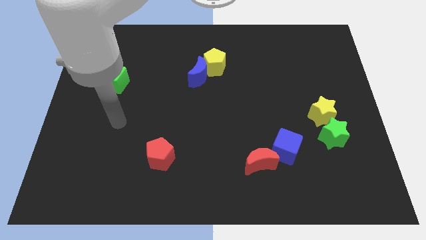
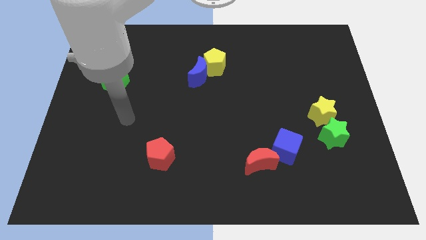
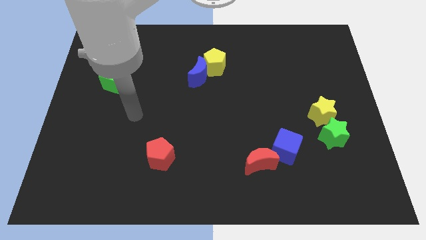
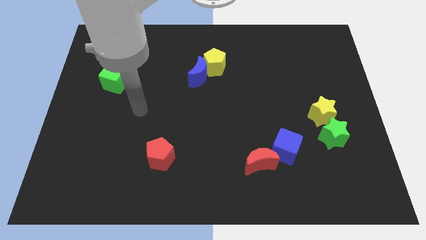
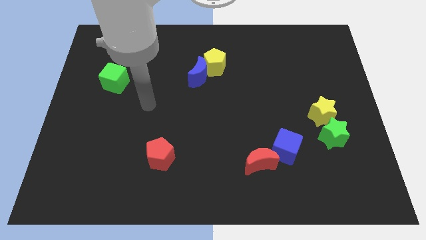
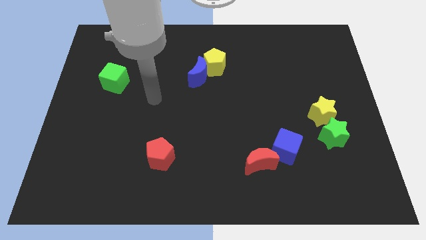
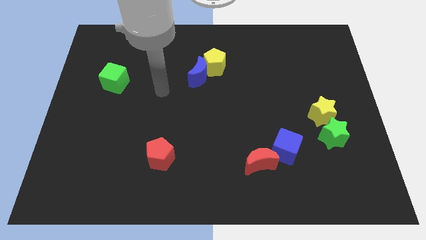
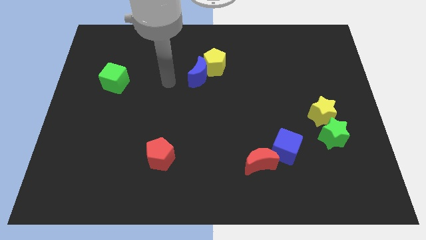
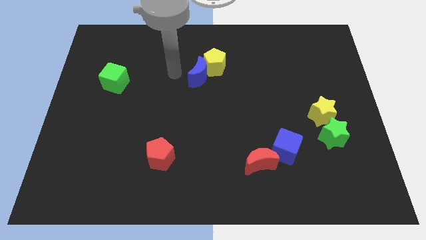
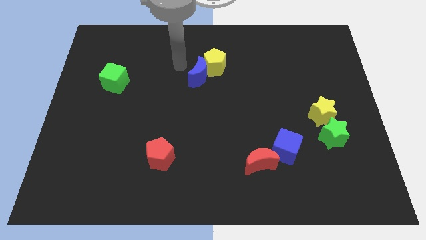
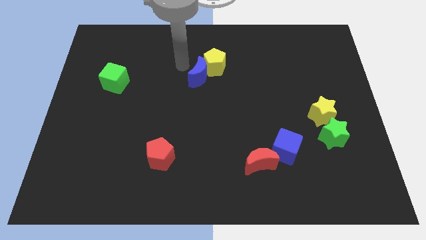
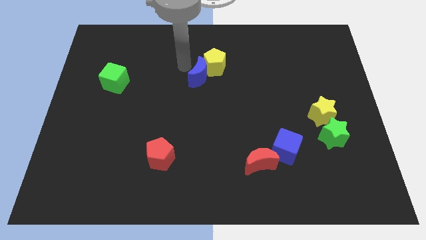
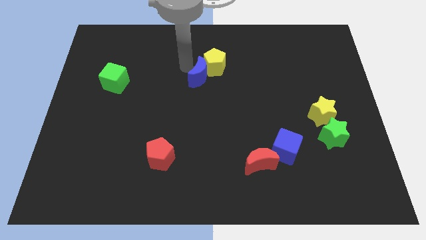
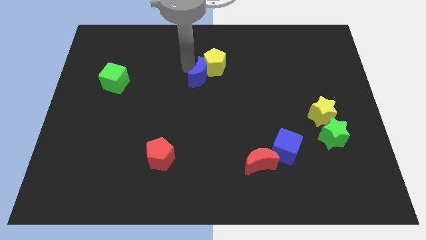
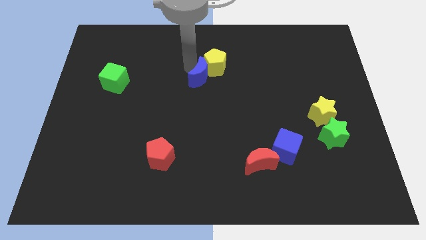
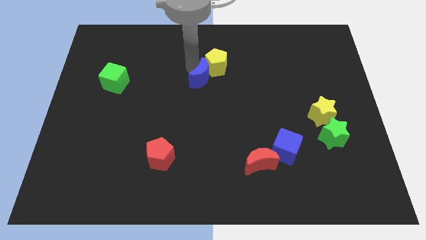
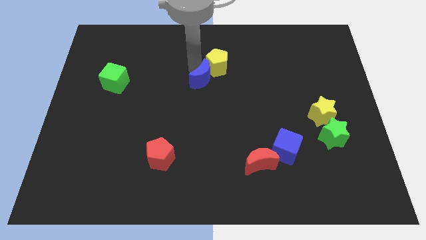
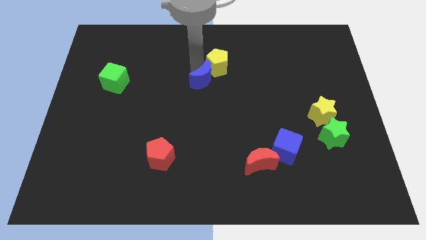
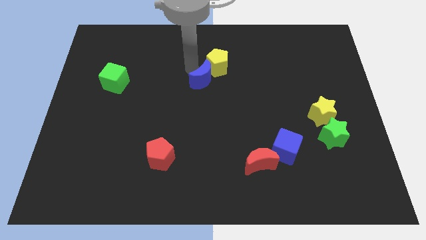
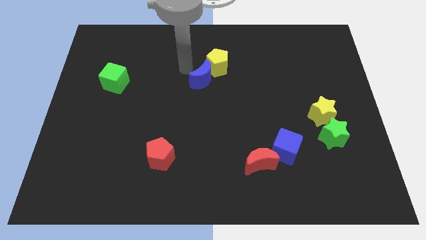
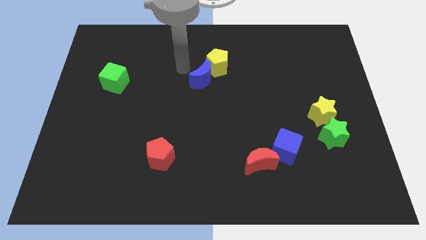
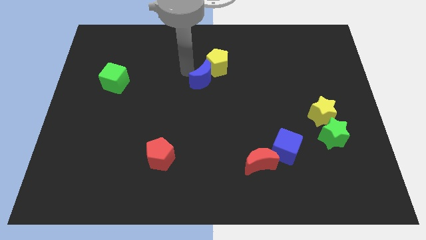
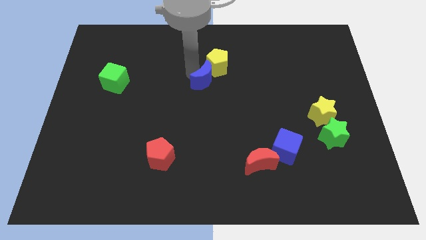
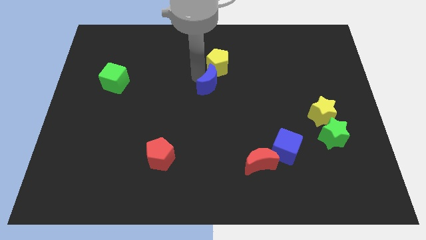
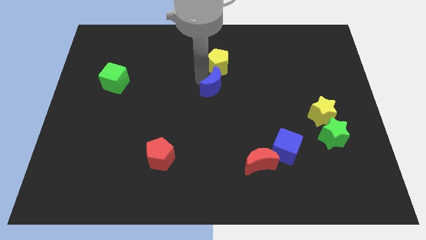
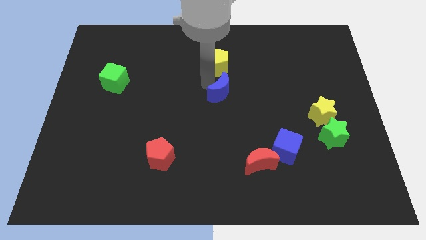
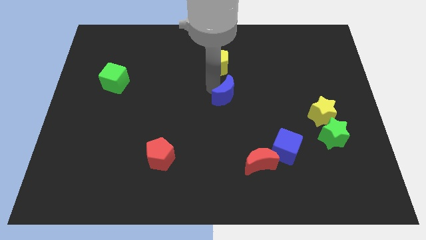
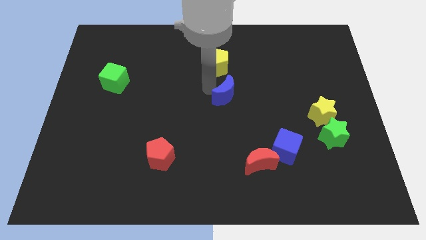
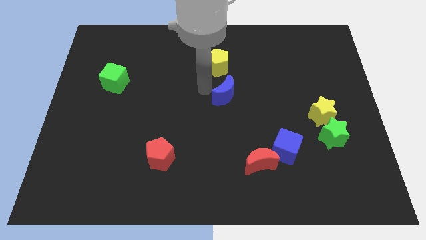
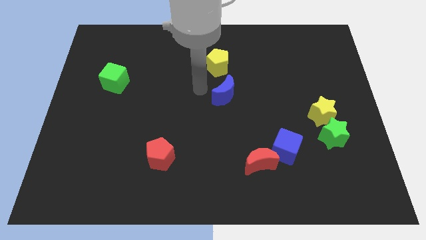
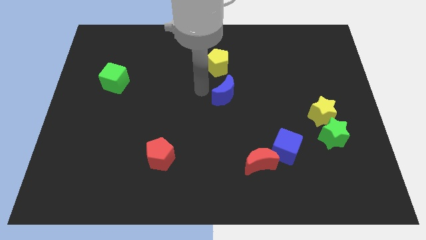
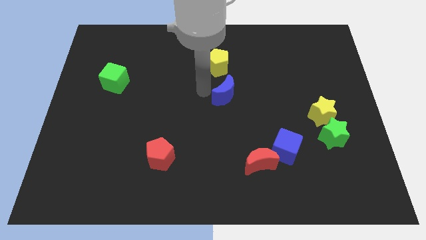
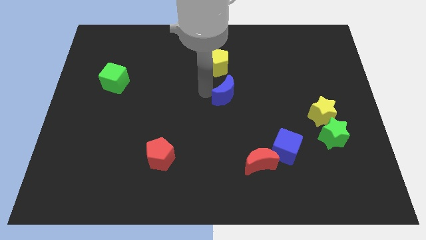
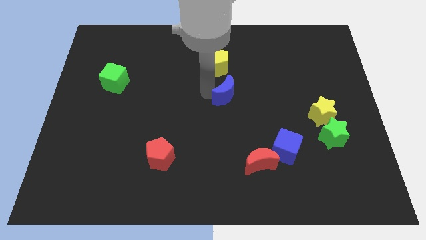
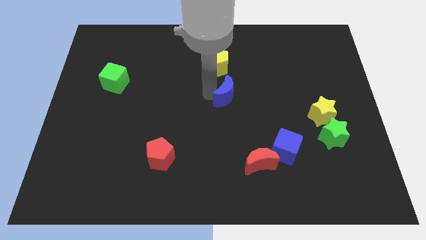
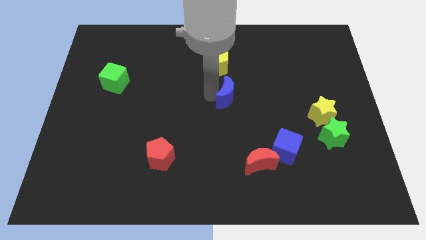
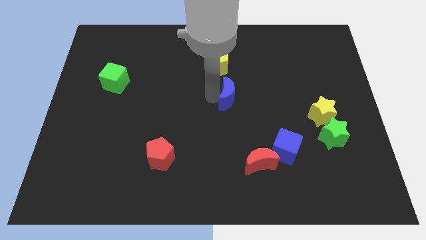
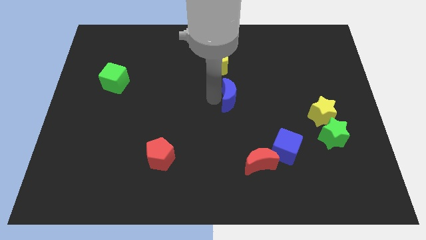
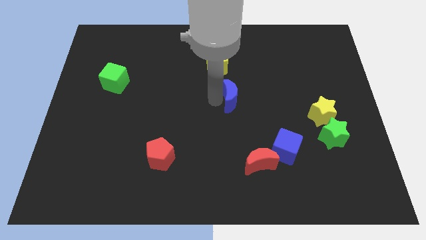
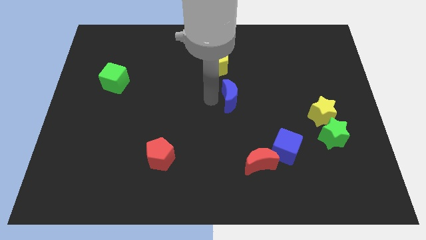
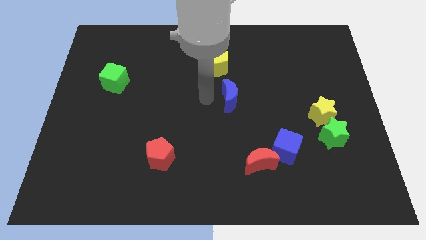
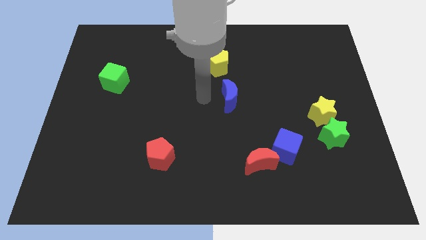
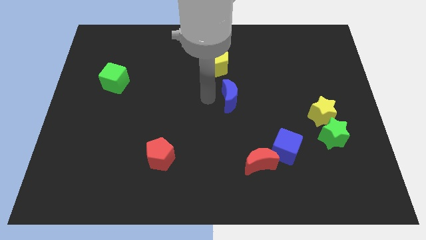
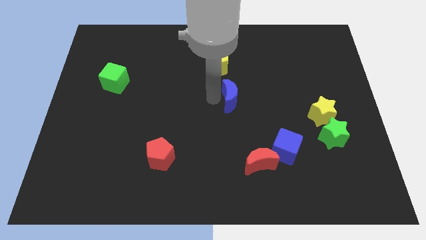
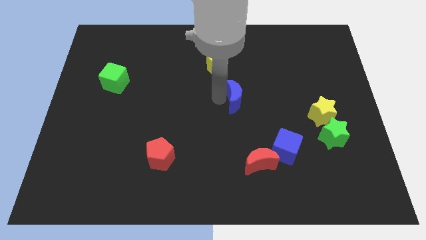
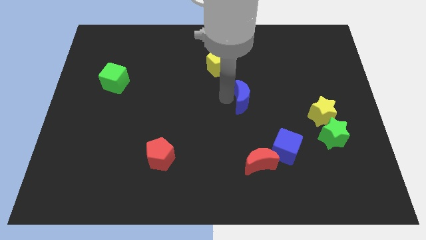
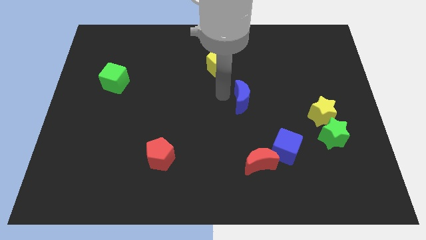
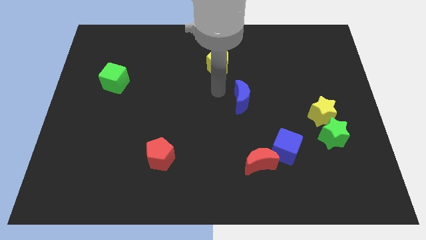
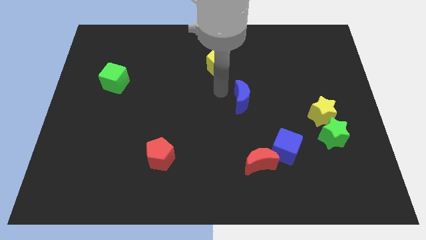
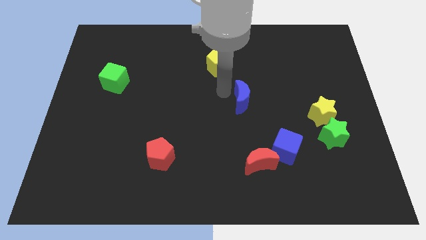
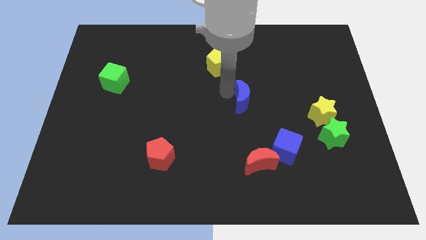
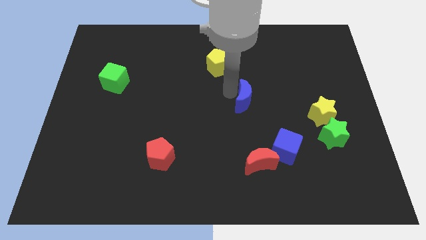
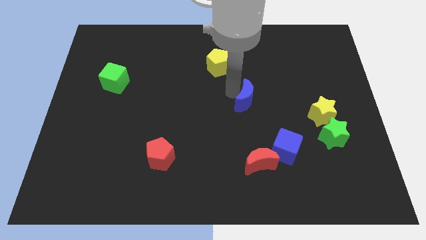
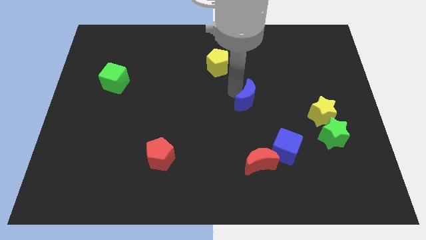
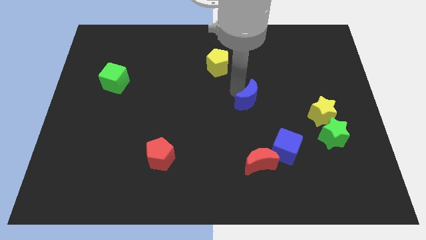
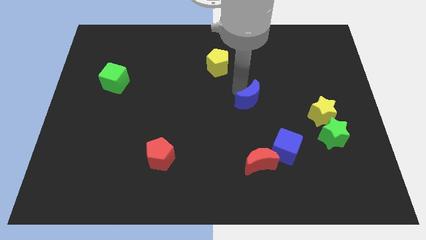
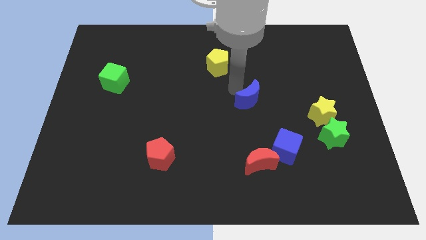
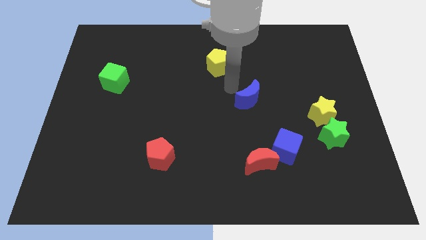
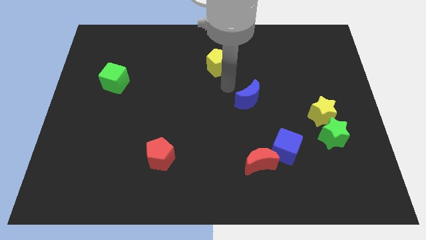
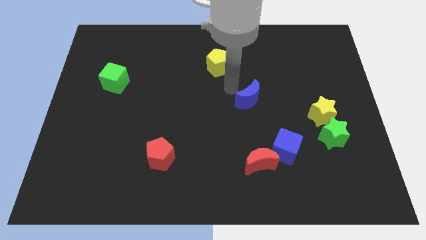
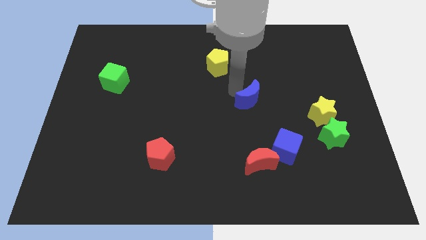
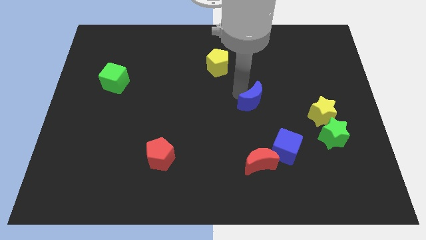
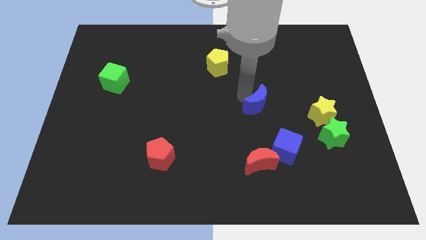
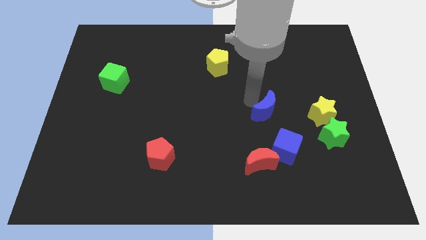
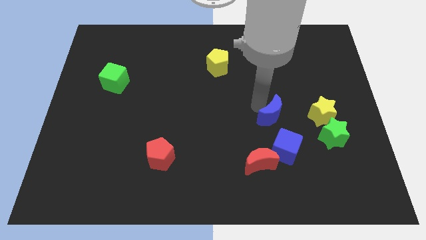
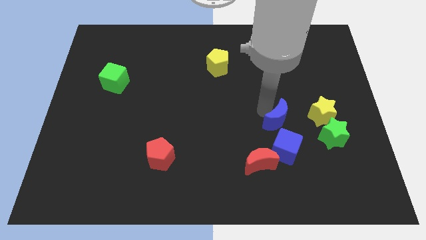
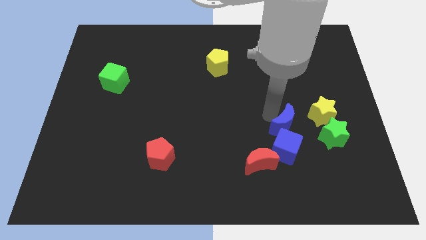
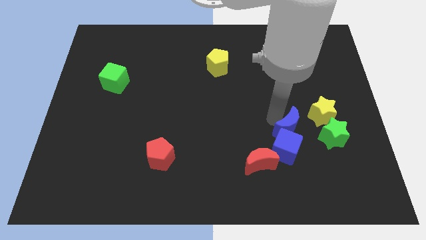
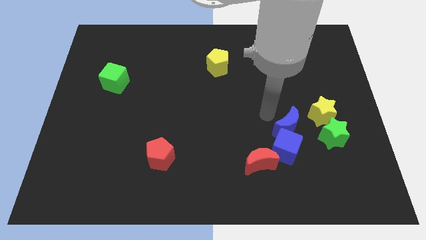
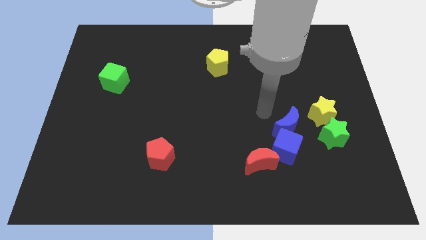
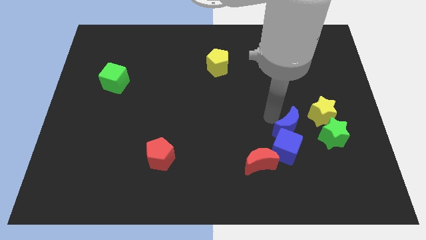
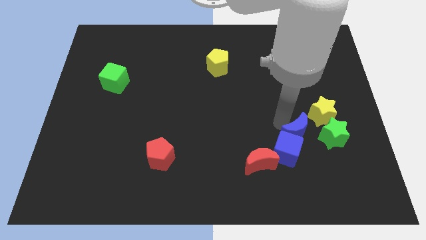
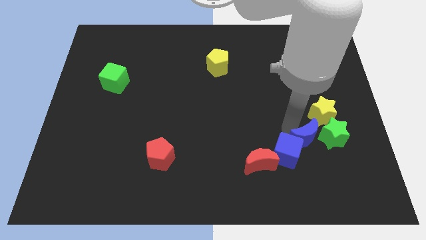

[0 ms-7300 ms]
put the blue moon to the bottom of the yellow star
